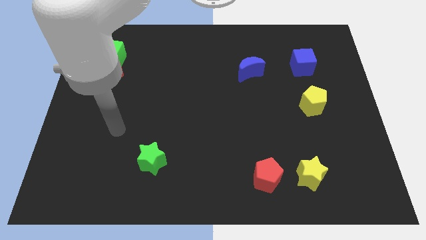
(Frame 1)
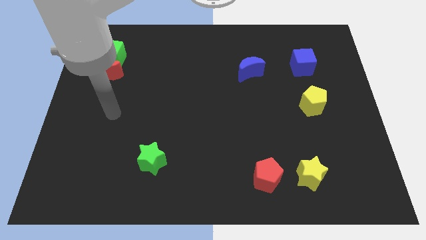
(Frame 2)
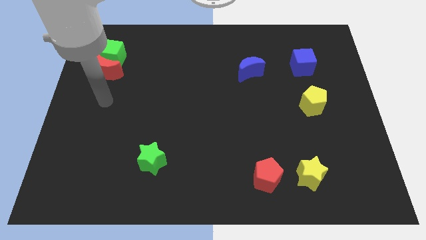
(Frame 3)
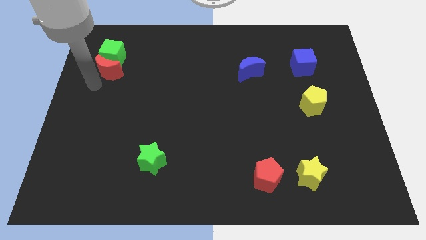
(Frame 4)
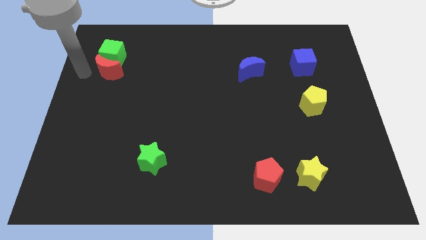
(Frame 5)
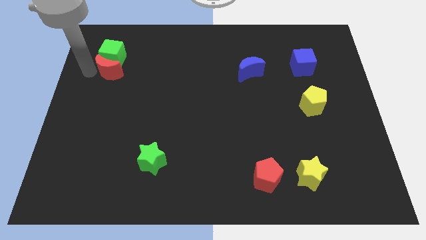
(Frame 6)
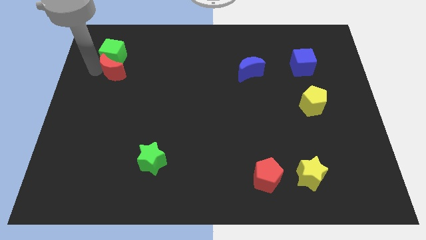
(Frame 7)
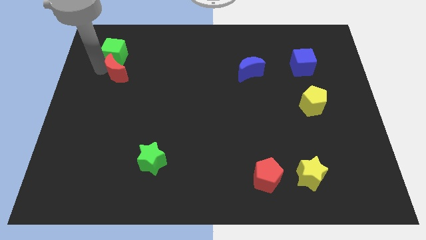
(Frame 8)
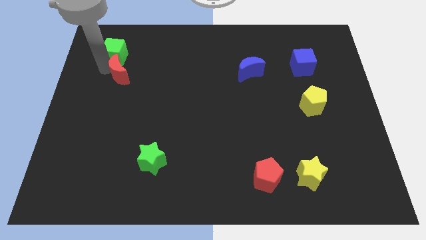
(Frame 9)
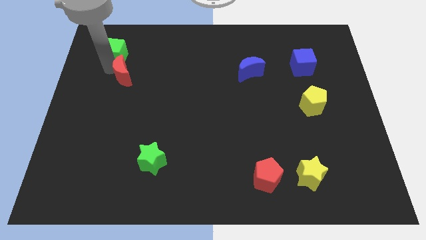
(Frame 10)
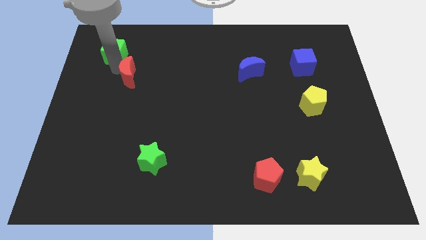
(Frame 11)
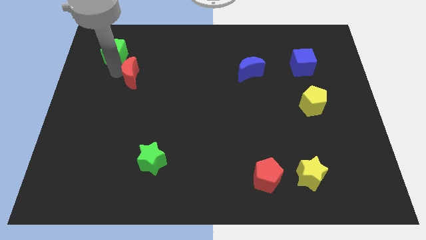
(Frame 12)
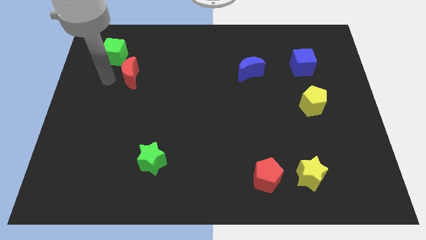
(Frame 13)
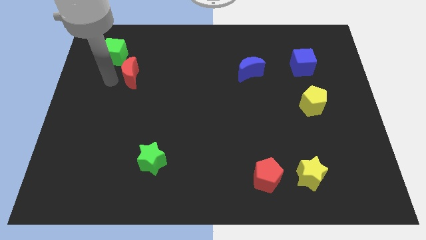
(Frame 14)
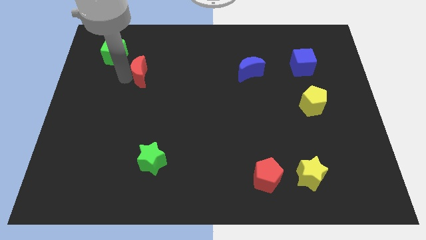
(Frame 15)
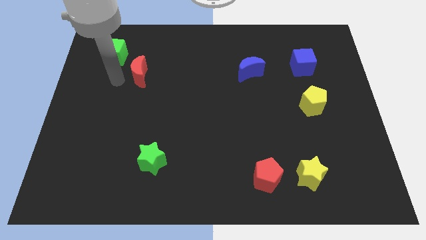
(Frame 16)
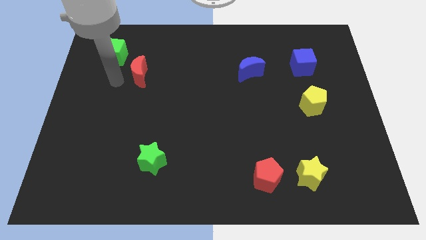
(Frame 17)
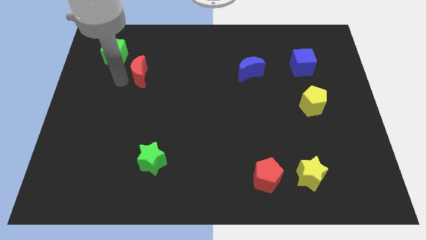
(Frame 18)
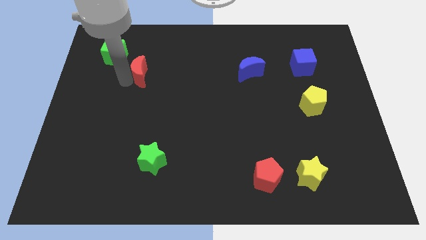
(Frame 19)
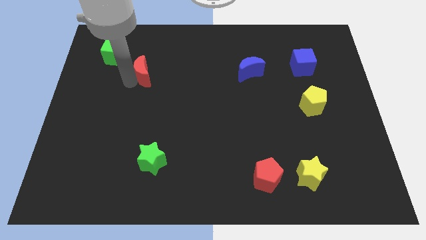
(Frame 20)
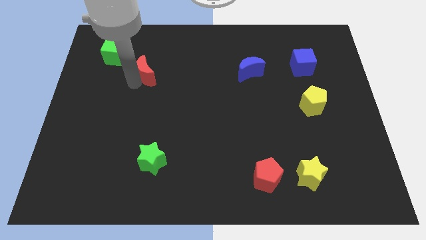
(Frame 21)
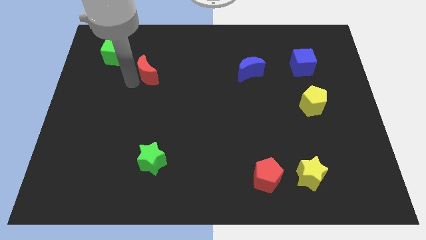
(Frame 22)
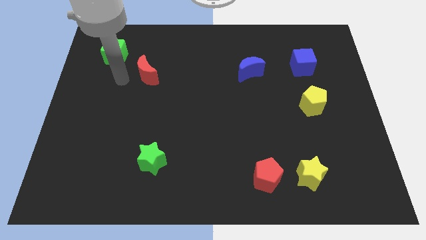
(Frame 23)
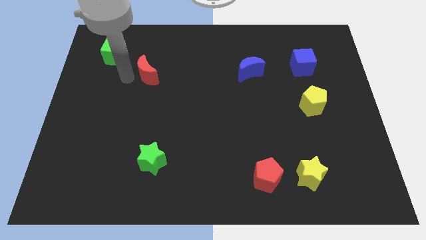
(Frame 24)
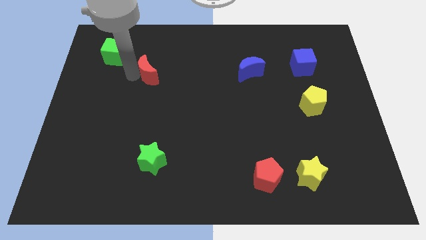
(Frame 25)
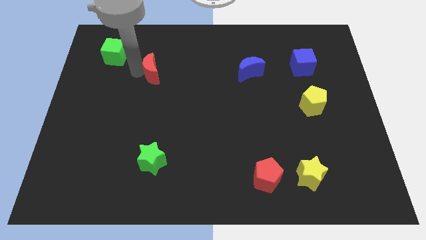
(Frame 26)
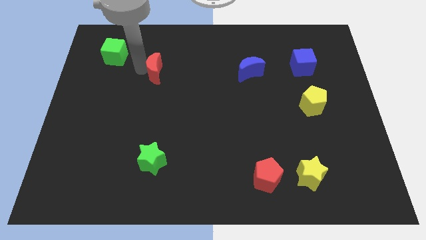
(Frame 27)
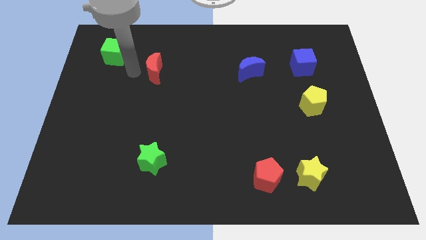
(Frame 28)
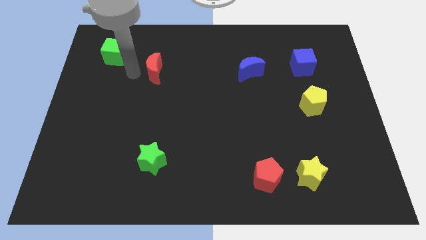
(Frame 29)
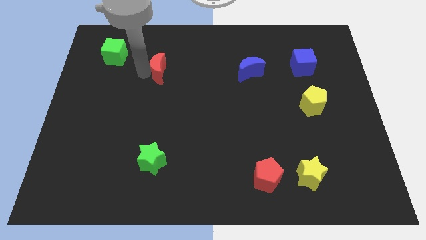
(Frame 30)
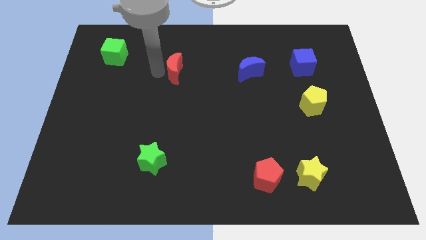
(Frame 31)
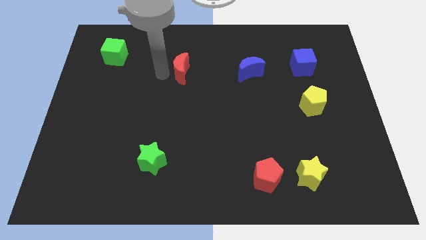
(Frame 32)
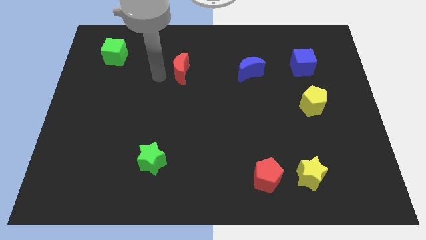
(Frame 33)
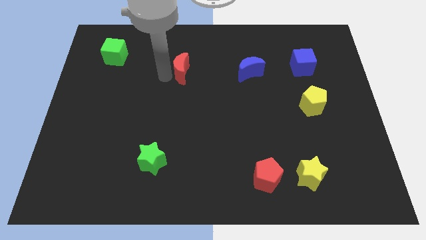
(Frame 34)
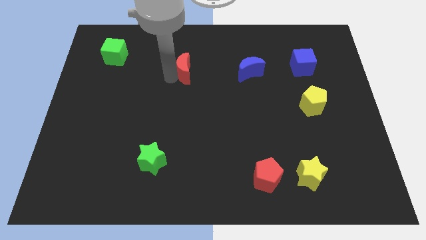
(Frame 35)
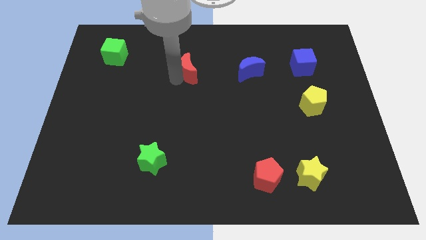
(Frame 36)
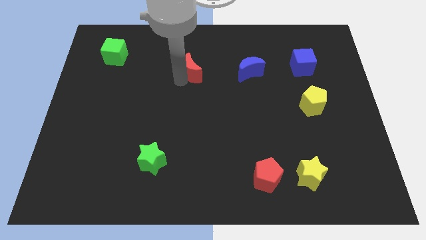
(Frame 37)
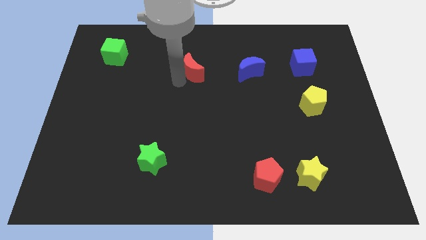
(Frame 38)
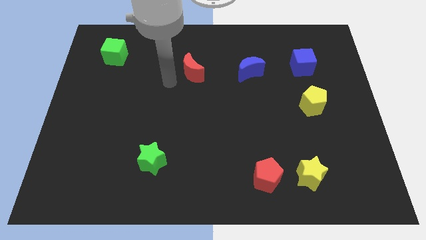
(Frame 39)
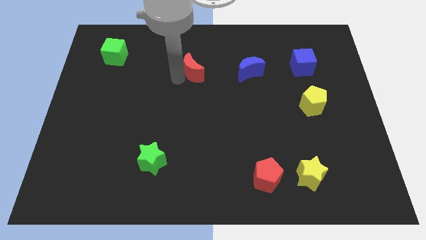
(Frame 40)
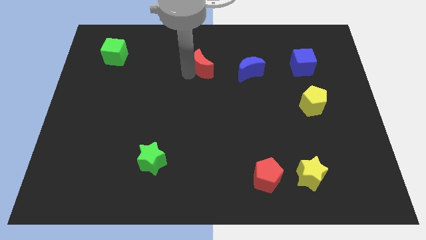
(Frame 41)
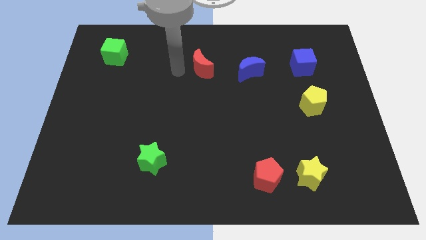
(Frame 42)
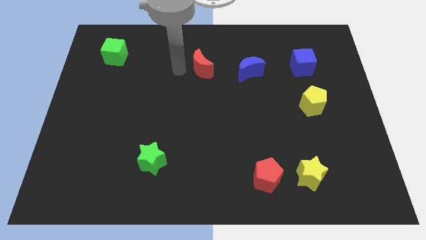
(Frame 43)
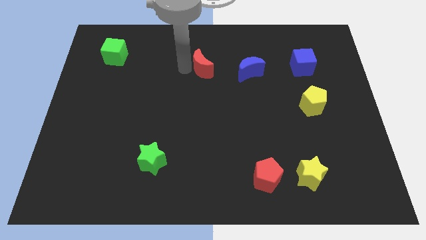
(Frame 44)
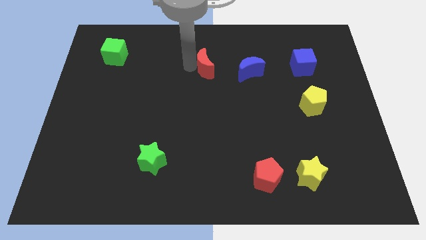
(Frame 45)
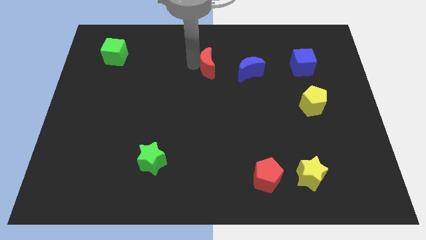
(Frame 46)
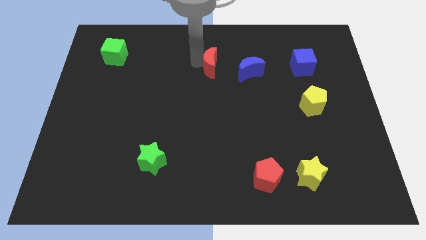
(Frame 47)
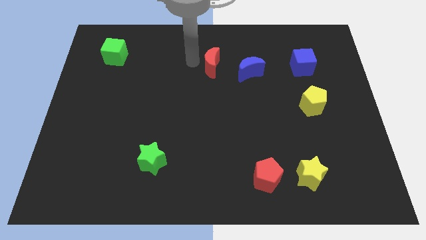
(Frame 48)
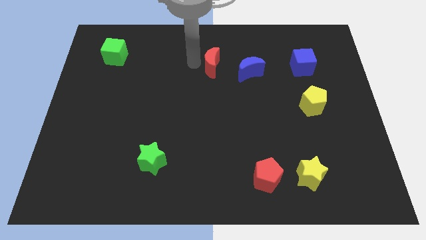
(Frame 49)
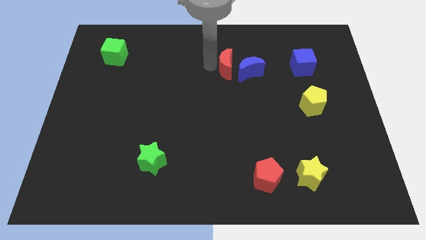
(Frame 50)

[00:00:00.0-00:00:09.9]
push the red moon towards the blue moon

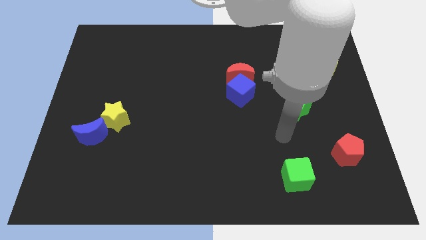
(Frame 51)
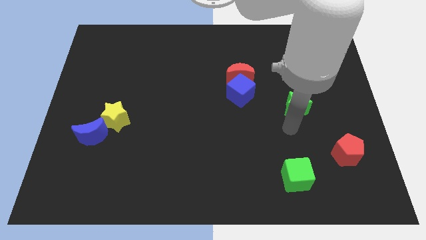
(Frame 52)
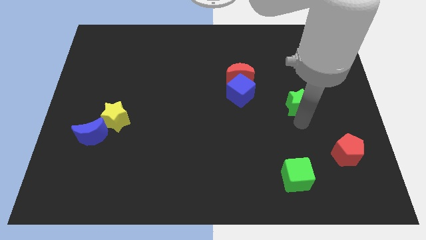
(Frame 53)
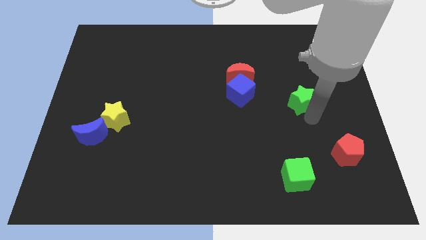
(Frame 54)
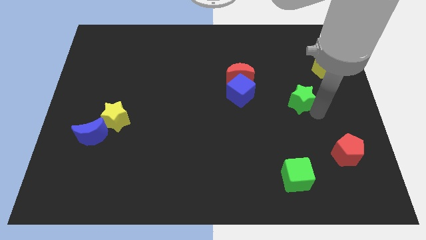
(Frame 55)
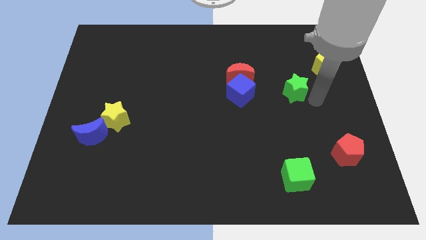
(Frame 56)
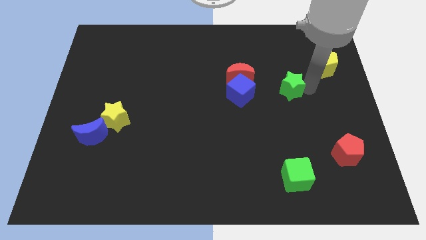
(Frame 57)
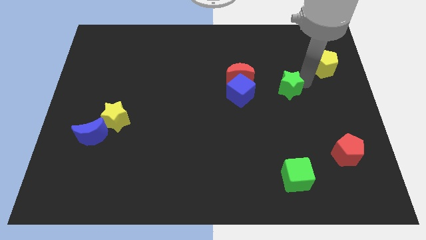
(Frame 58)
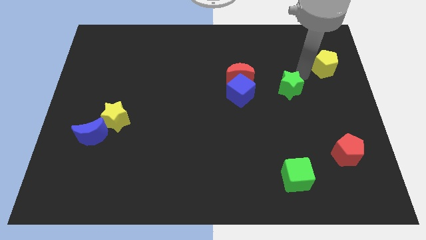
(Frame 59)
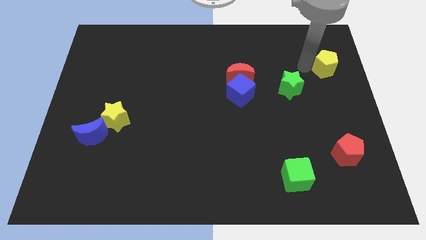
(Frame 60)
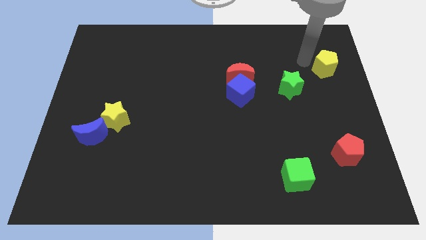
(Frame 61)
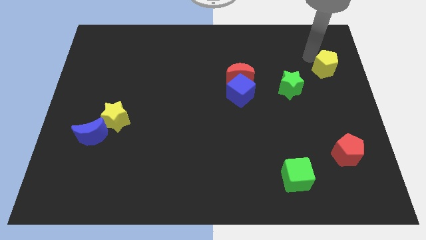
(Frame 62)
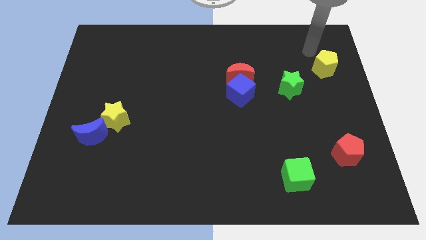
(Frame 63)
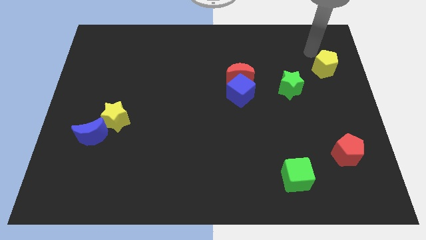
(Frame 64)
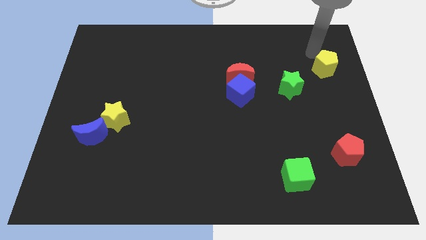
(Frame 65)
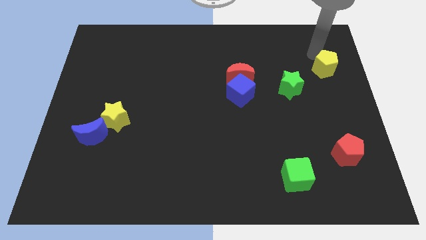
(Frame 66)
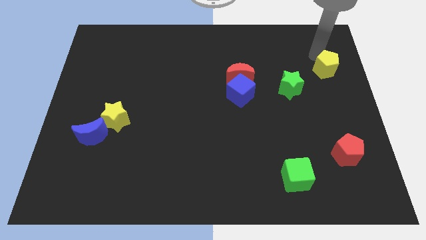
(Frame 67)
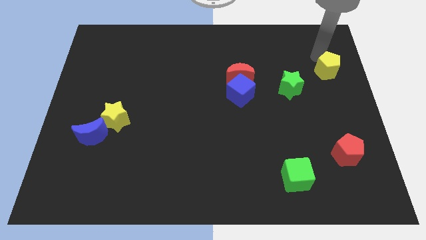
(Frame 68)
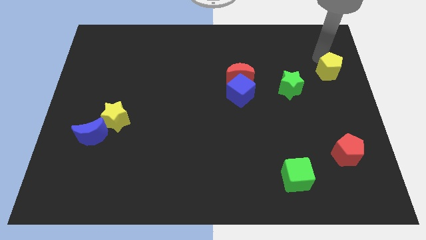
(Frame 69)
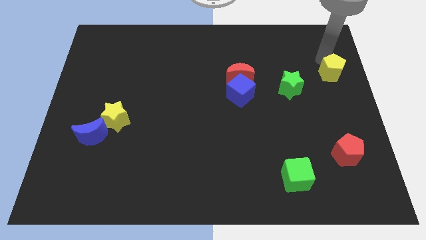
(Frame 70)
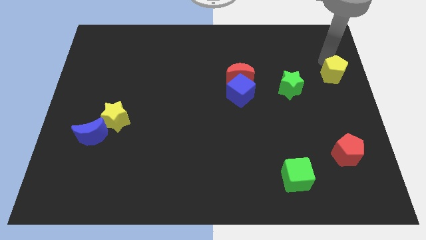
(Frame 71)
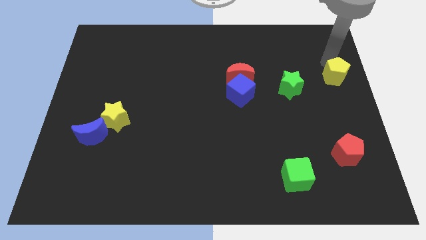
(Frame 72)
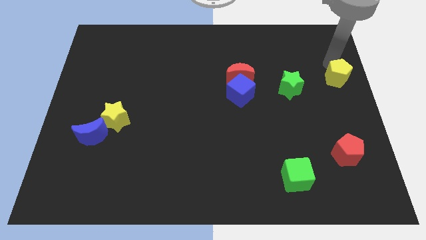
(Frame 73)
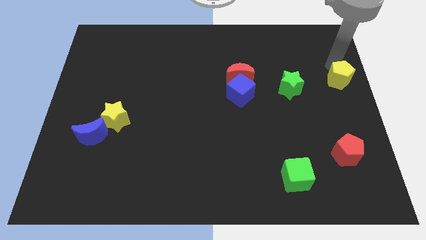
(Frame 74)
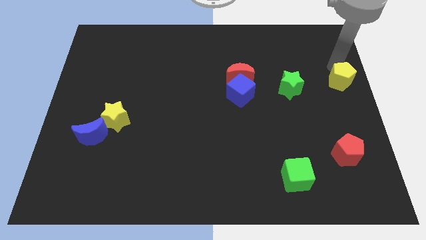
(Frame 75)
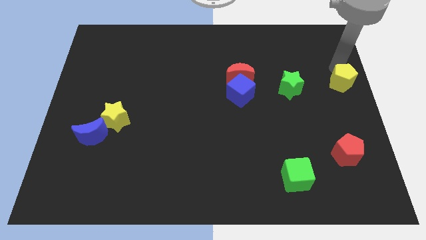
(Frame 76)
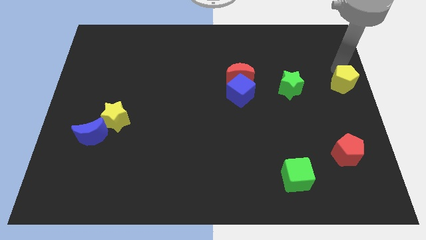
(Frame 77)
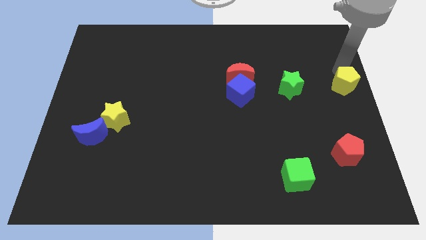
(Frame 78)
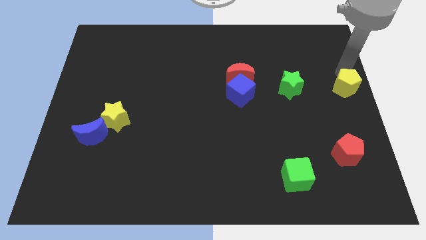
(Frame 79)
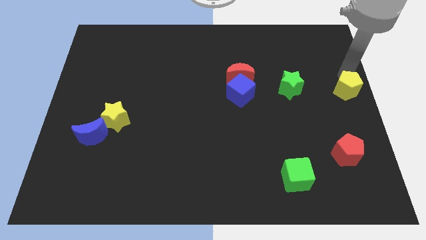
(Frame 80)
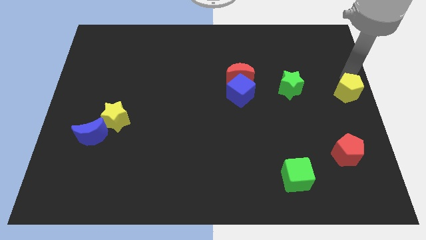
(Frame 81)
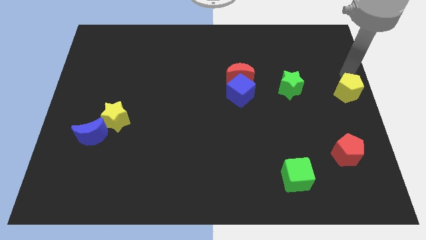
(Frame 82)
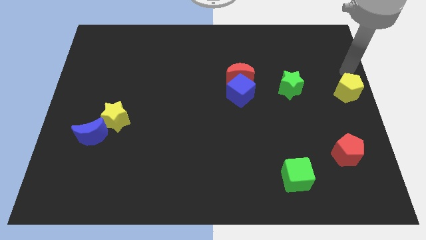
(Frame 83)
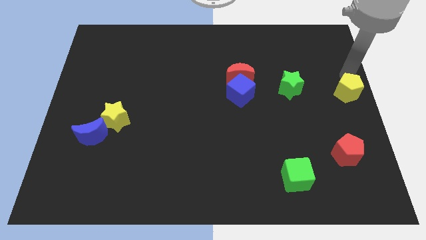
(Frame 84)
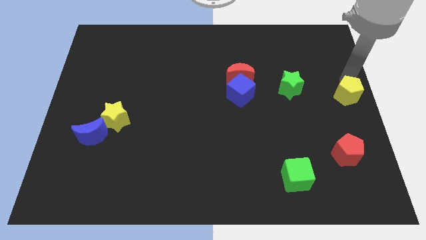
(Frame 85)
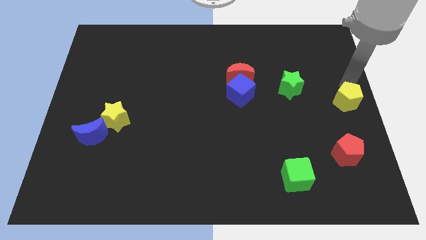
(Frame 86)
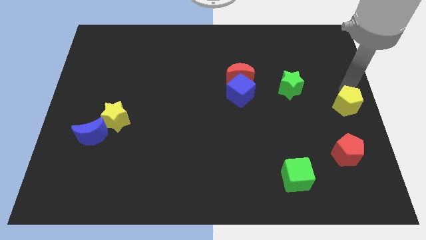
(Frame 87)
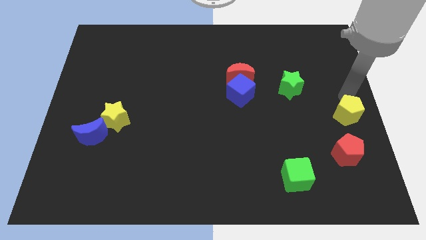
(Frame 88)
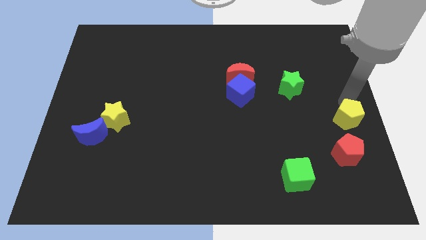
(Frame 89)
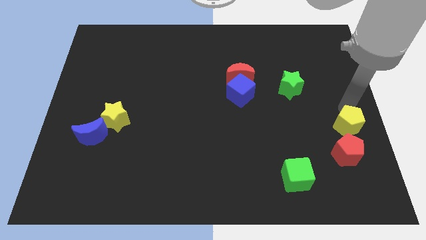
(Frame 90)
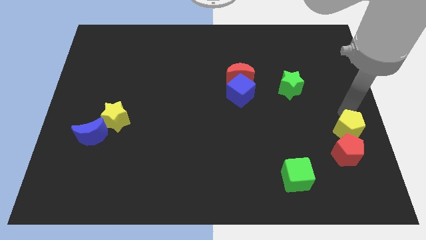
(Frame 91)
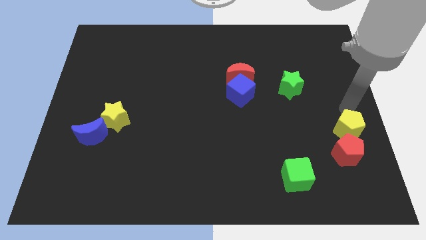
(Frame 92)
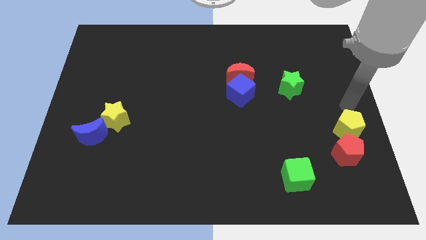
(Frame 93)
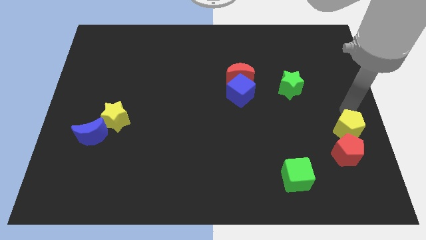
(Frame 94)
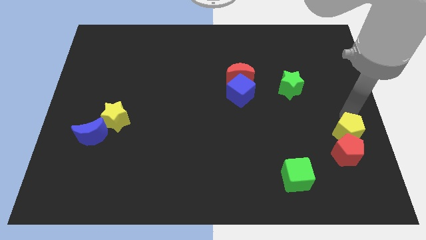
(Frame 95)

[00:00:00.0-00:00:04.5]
push the yellow pentagon close to the red pentagon
